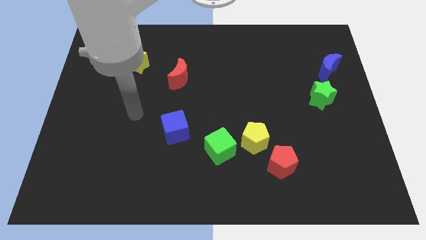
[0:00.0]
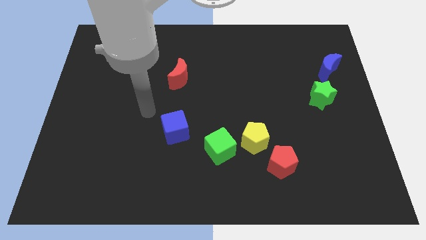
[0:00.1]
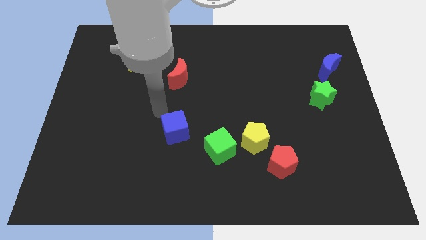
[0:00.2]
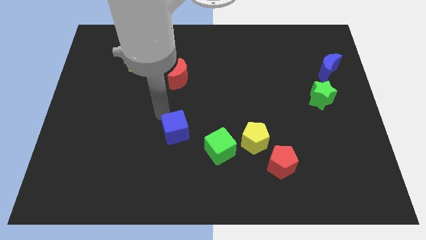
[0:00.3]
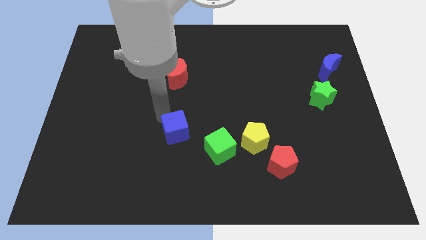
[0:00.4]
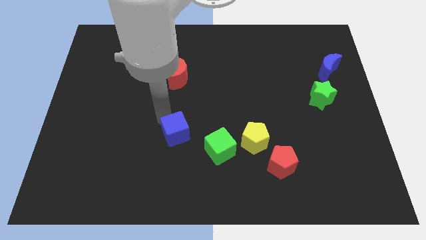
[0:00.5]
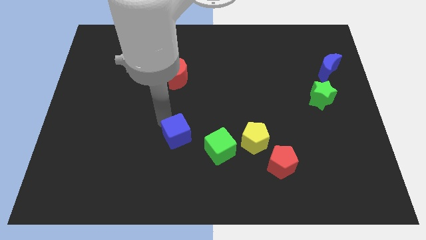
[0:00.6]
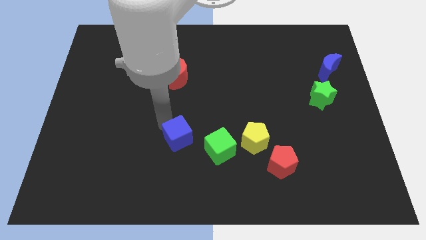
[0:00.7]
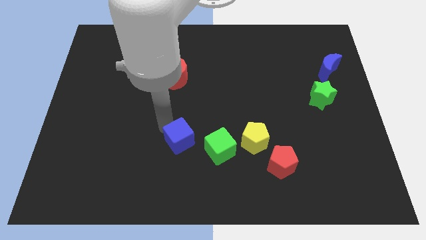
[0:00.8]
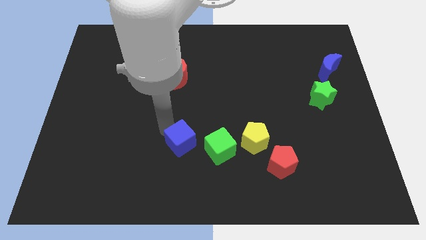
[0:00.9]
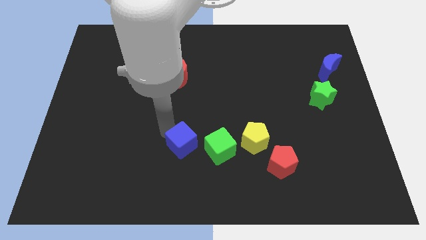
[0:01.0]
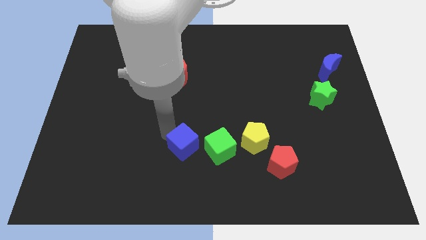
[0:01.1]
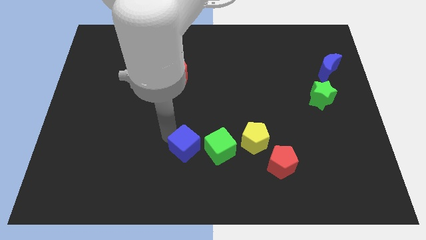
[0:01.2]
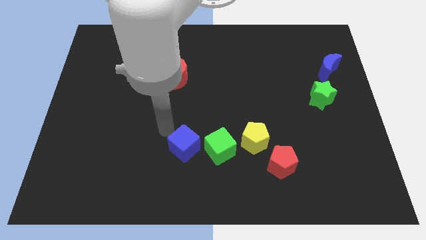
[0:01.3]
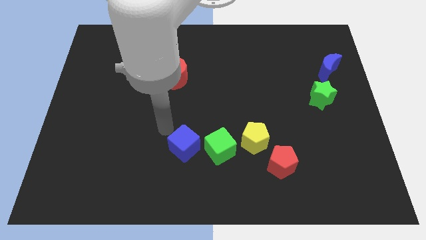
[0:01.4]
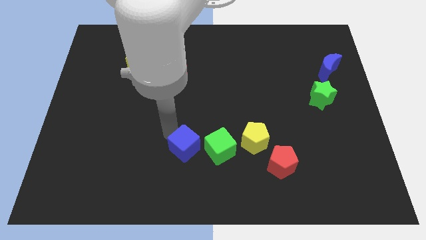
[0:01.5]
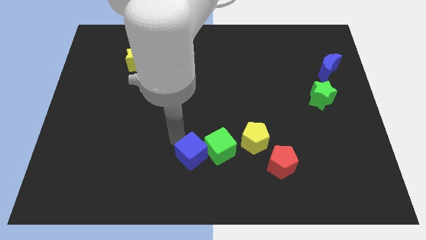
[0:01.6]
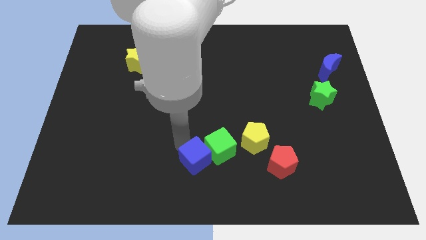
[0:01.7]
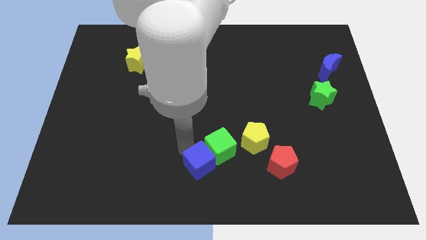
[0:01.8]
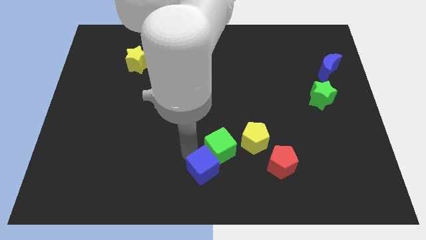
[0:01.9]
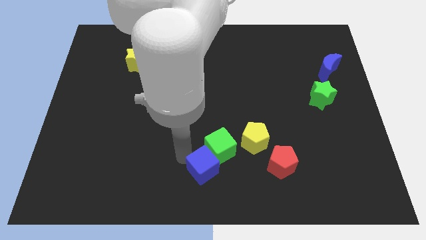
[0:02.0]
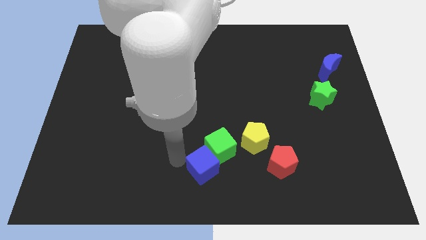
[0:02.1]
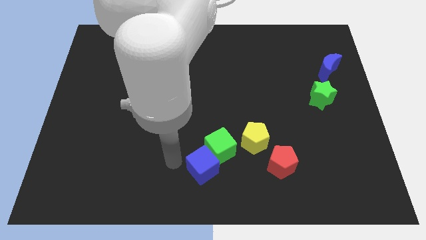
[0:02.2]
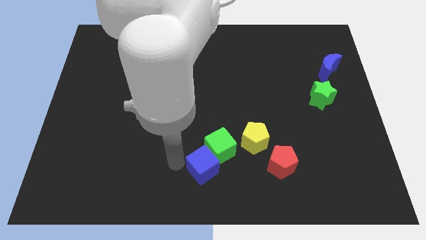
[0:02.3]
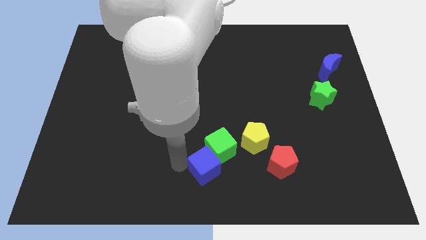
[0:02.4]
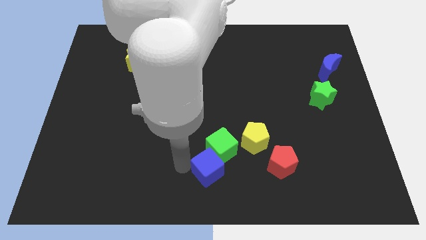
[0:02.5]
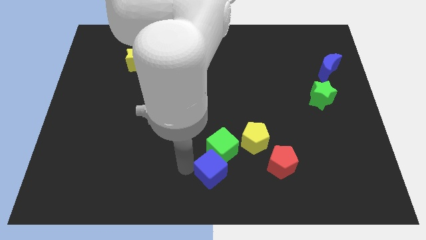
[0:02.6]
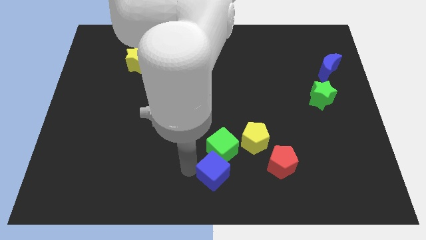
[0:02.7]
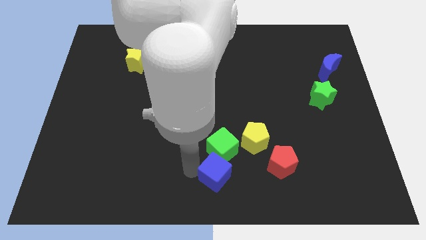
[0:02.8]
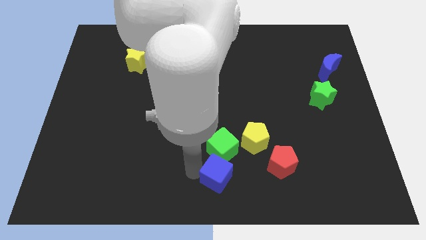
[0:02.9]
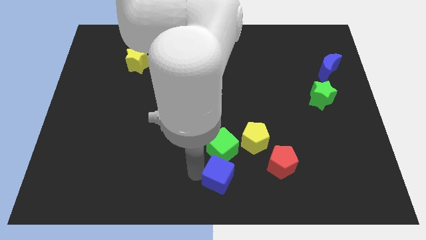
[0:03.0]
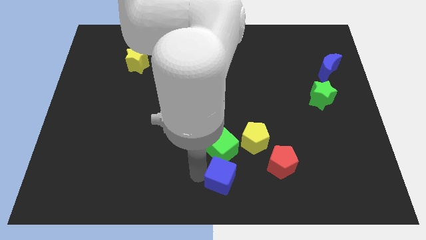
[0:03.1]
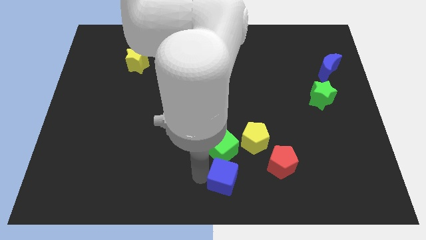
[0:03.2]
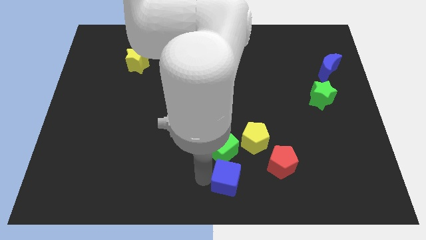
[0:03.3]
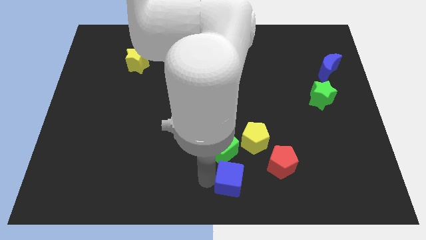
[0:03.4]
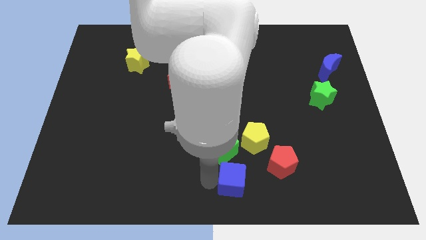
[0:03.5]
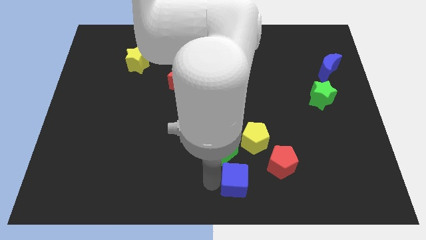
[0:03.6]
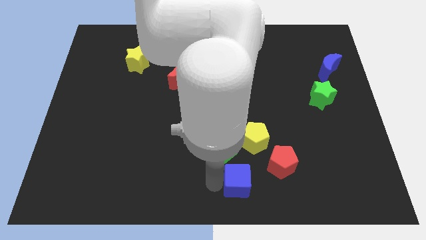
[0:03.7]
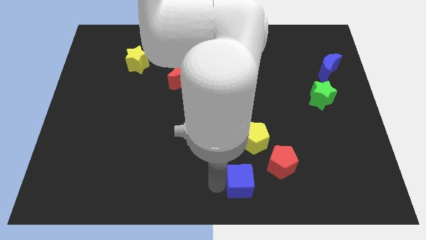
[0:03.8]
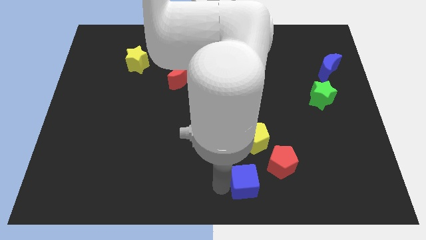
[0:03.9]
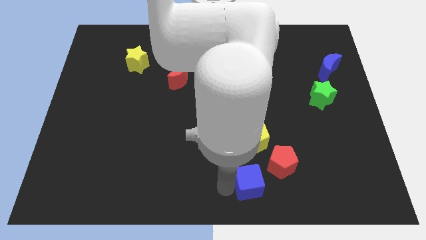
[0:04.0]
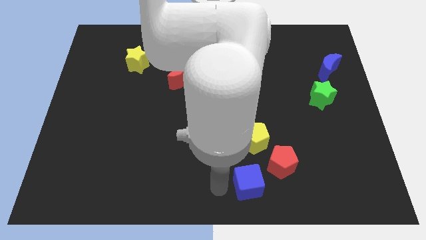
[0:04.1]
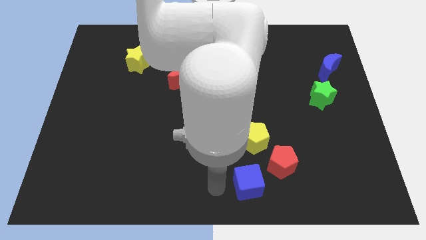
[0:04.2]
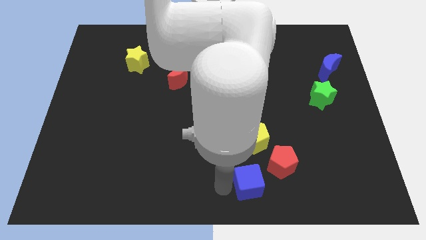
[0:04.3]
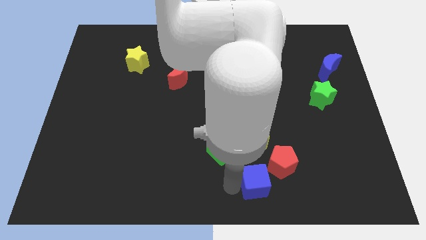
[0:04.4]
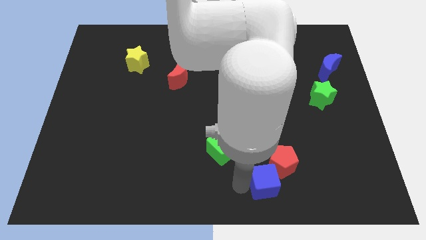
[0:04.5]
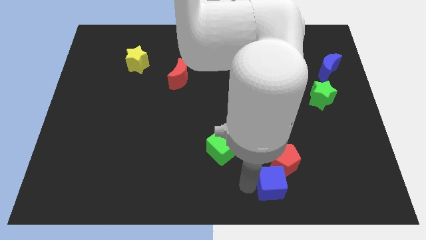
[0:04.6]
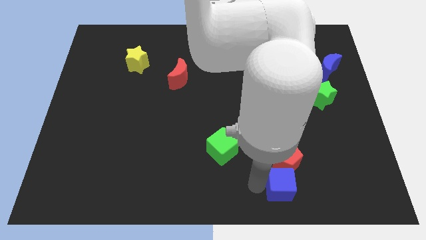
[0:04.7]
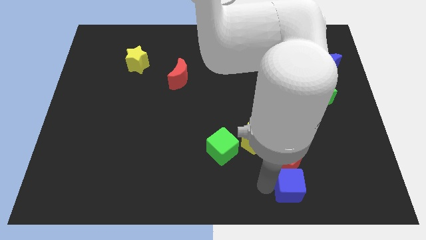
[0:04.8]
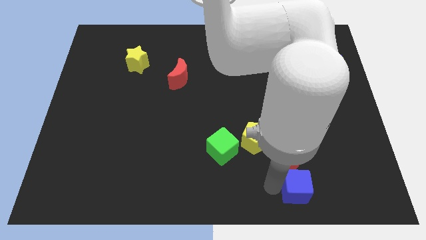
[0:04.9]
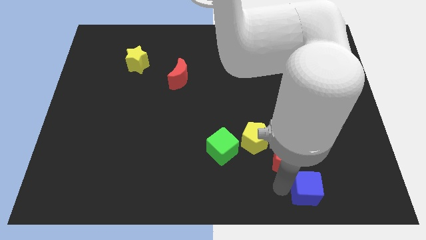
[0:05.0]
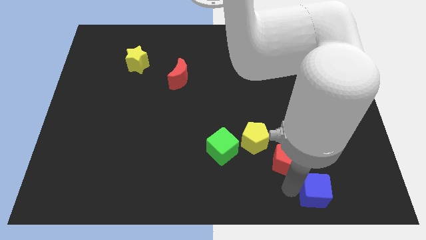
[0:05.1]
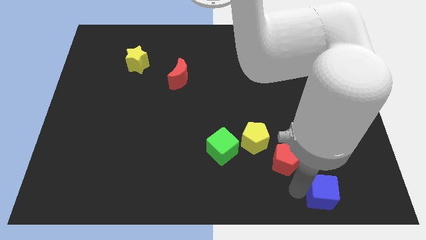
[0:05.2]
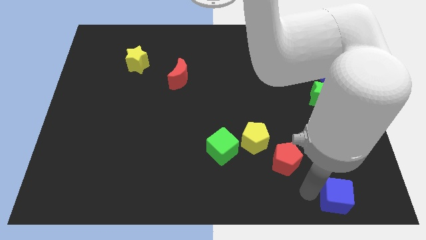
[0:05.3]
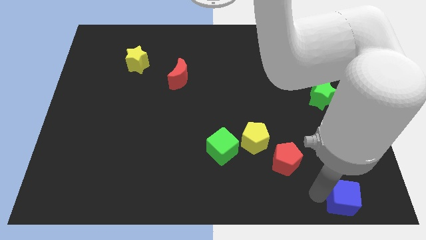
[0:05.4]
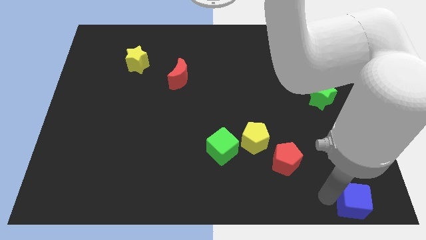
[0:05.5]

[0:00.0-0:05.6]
slide the blue cube to the bottom right of the board

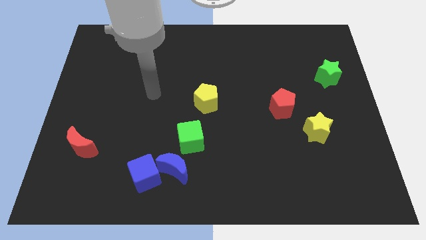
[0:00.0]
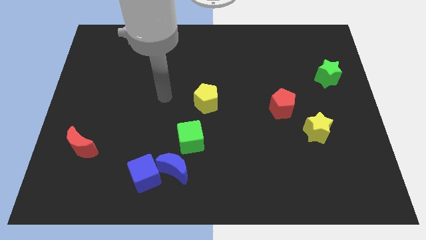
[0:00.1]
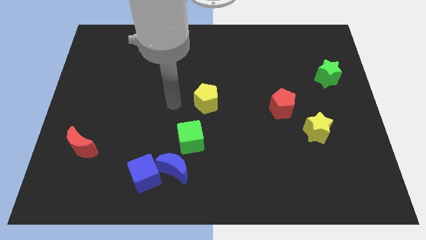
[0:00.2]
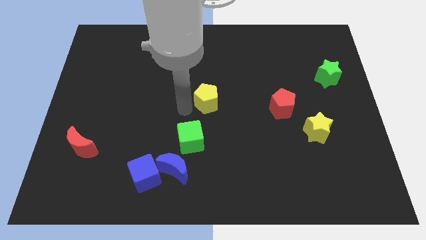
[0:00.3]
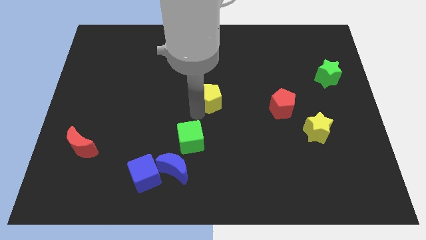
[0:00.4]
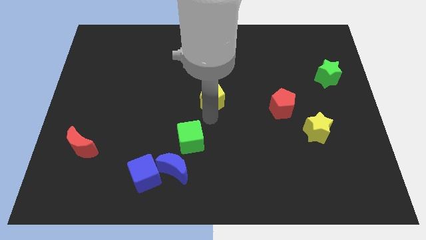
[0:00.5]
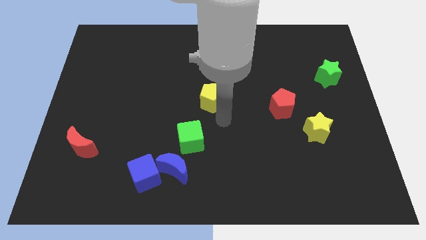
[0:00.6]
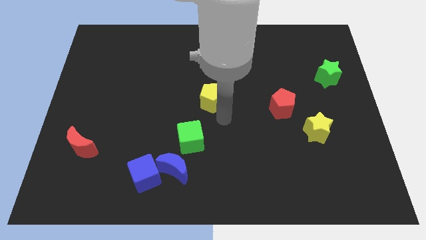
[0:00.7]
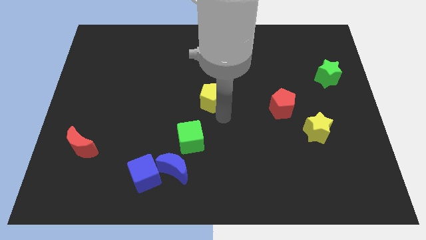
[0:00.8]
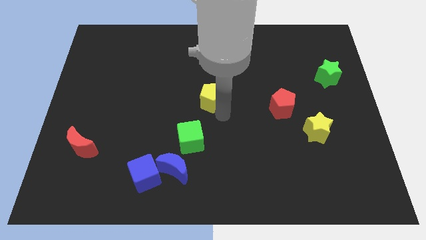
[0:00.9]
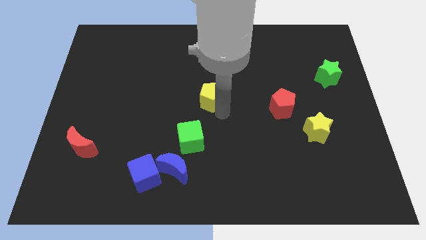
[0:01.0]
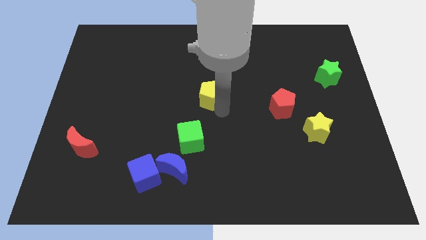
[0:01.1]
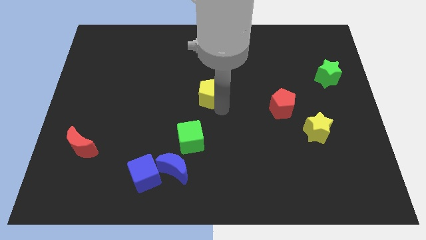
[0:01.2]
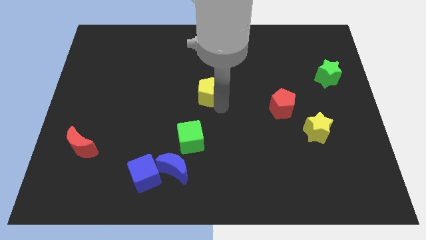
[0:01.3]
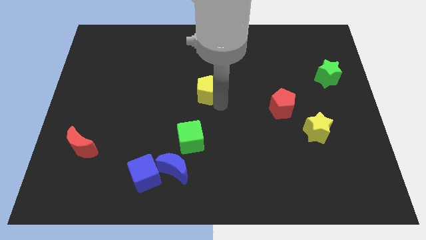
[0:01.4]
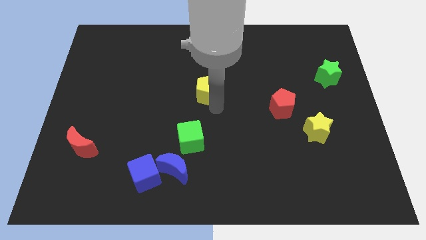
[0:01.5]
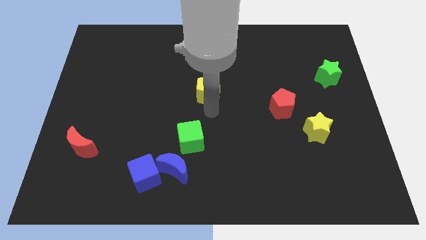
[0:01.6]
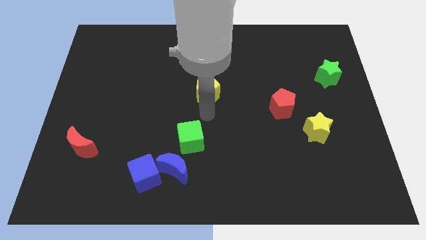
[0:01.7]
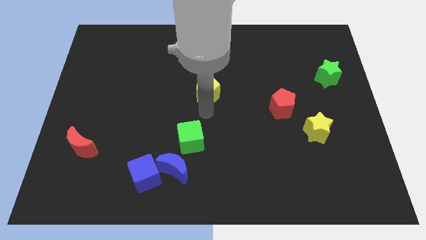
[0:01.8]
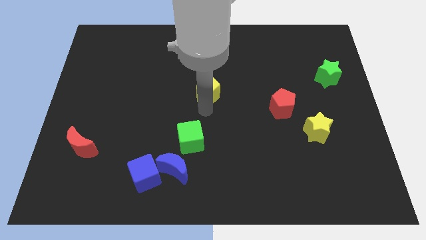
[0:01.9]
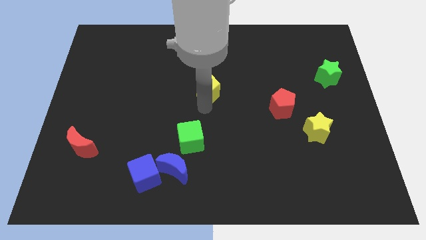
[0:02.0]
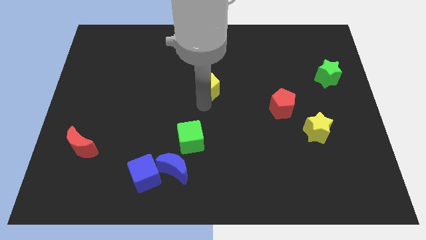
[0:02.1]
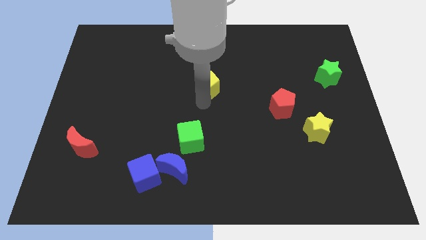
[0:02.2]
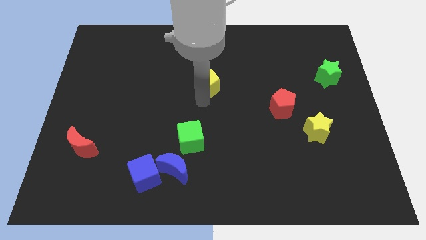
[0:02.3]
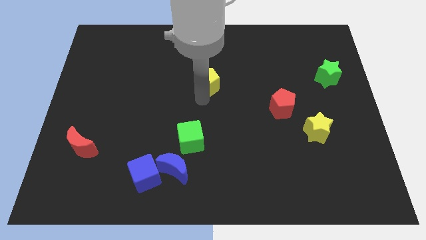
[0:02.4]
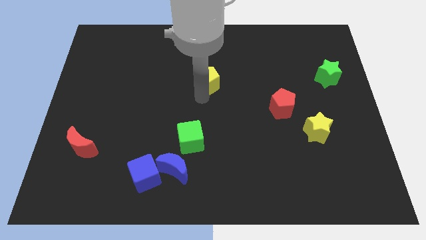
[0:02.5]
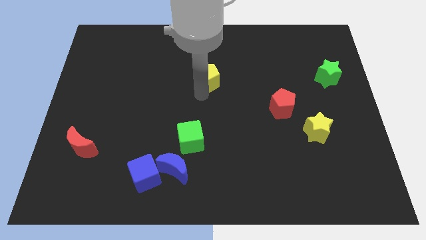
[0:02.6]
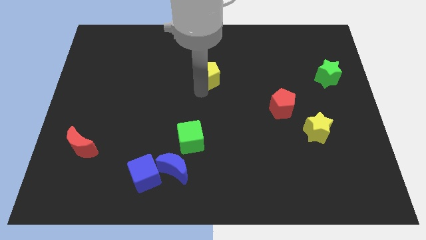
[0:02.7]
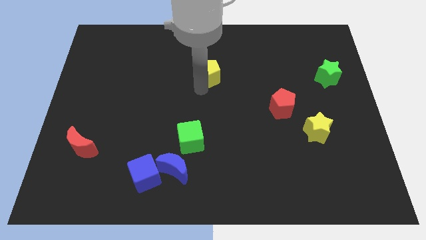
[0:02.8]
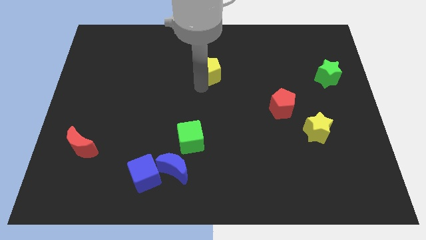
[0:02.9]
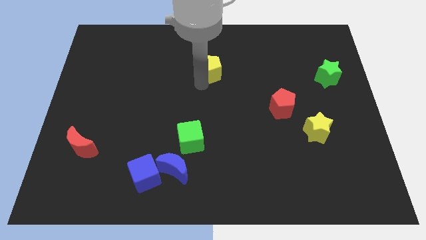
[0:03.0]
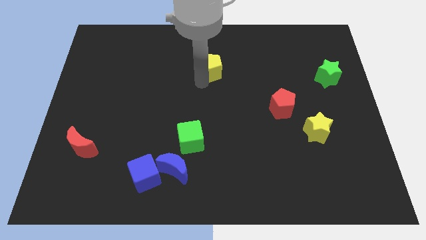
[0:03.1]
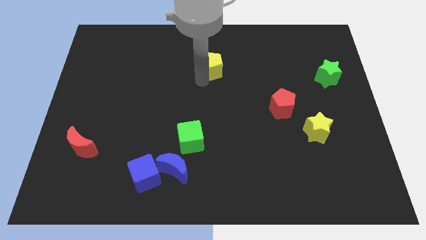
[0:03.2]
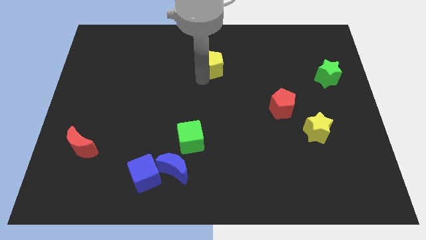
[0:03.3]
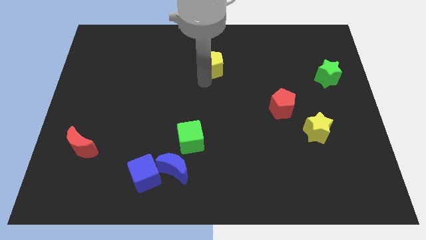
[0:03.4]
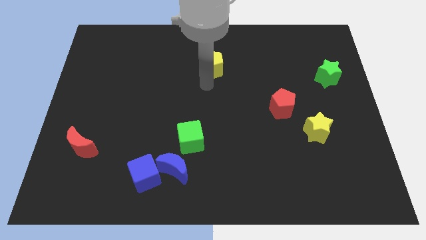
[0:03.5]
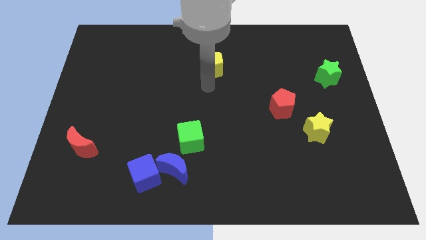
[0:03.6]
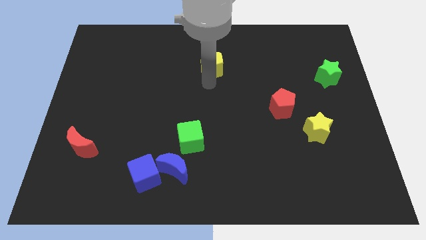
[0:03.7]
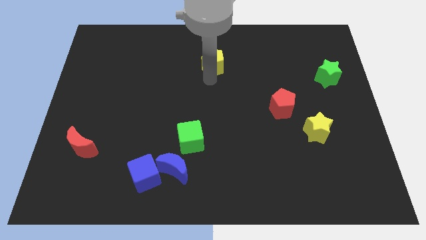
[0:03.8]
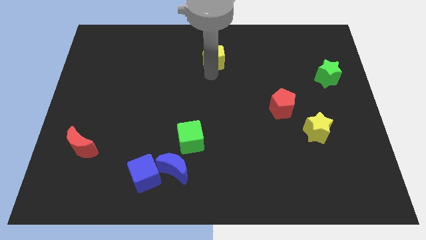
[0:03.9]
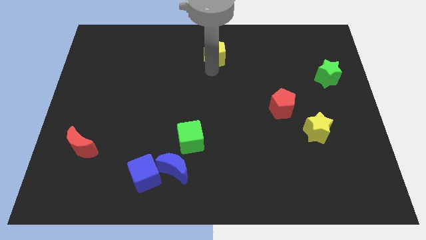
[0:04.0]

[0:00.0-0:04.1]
slide the yellow pentagon to the towards your base
